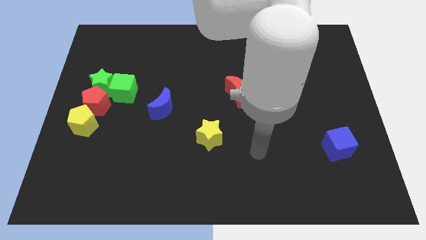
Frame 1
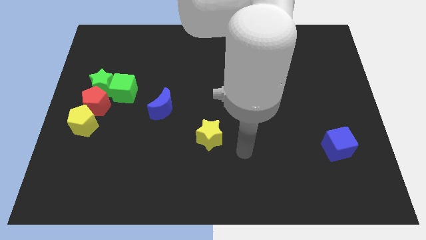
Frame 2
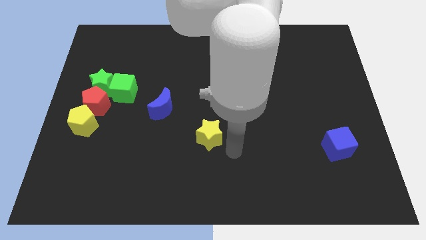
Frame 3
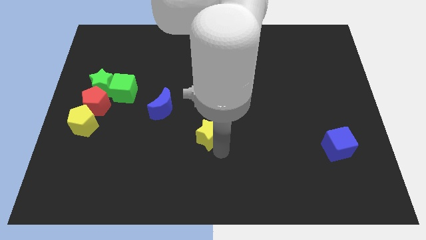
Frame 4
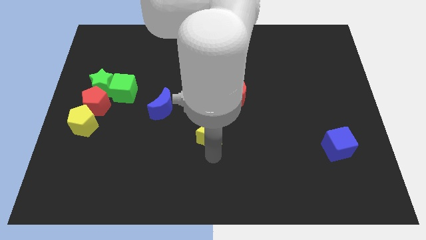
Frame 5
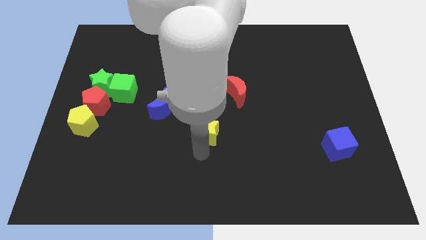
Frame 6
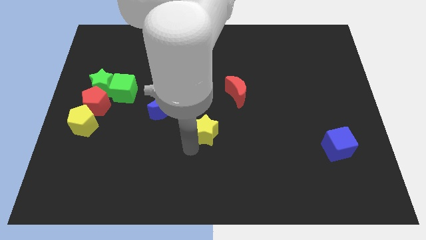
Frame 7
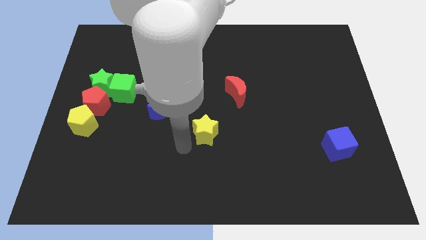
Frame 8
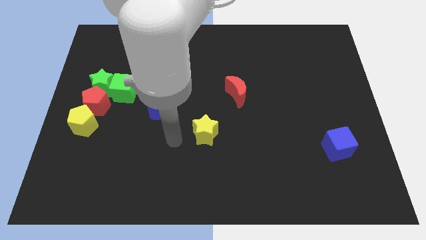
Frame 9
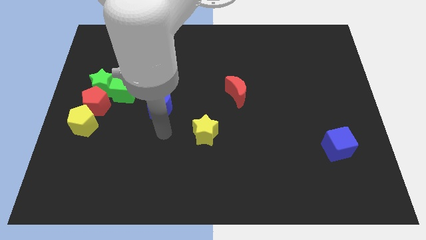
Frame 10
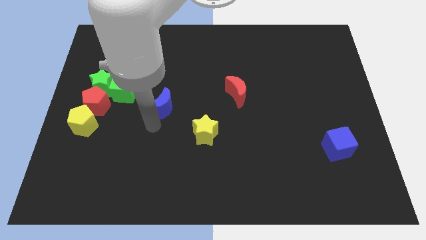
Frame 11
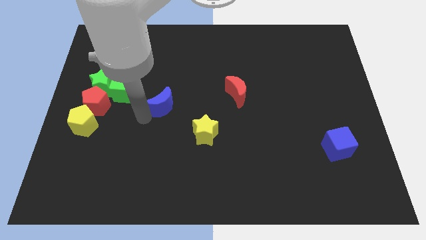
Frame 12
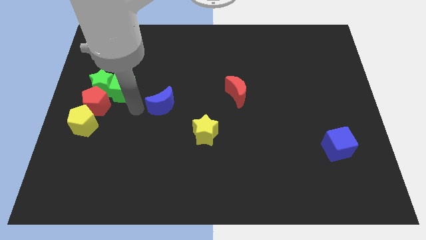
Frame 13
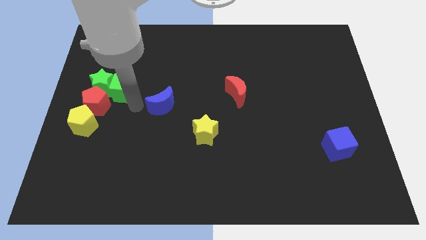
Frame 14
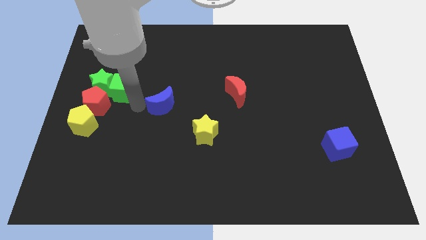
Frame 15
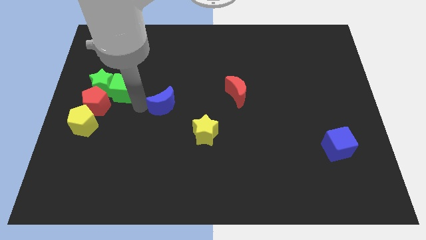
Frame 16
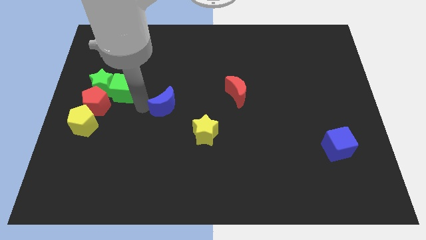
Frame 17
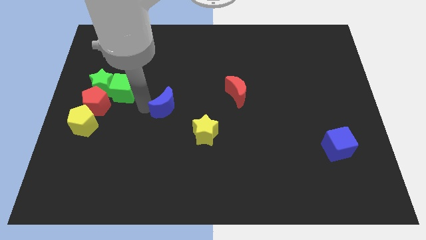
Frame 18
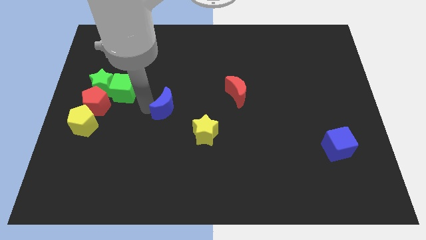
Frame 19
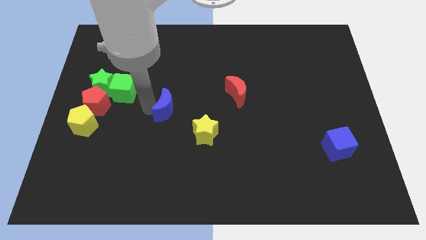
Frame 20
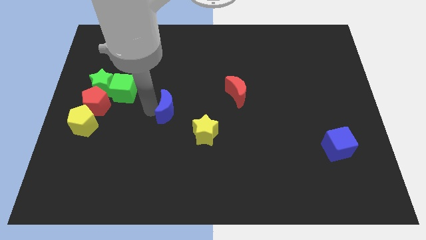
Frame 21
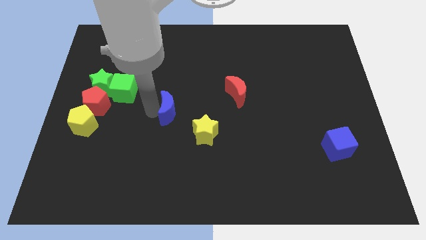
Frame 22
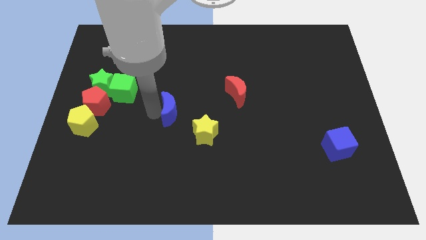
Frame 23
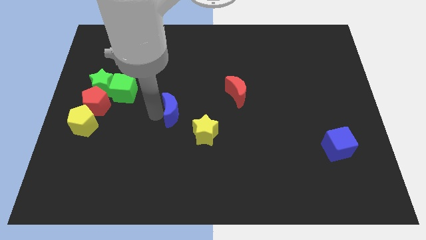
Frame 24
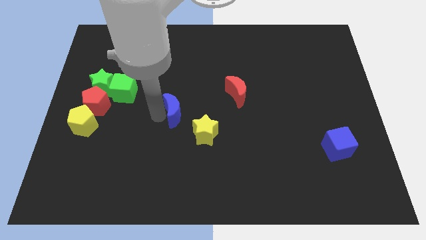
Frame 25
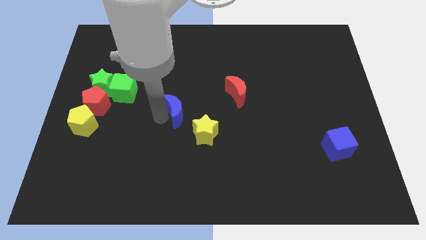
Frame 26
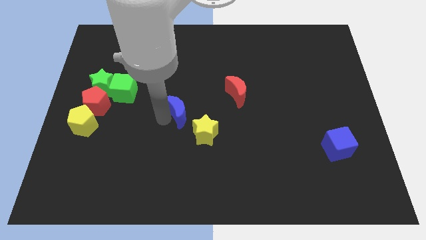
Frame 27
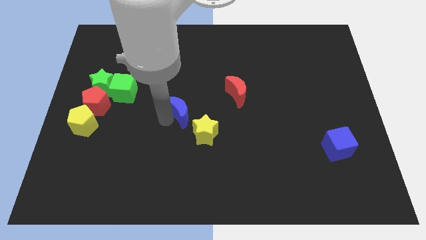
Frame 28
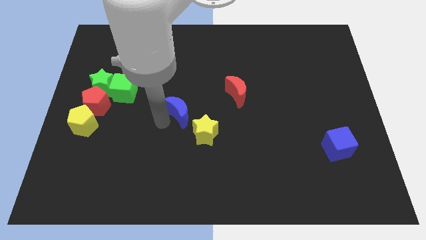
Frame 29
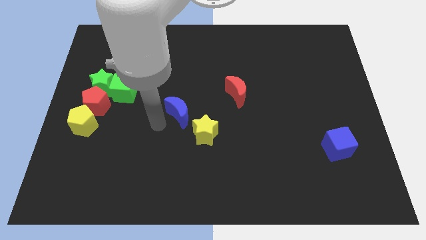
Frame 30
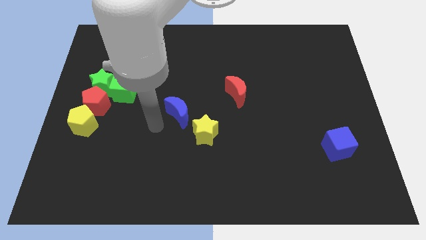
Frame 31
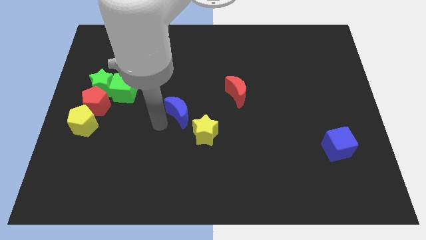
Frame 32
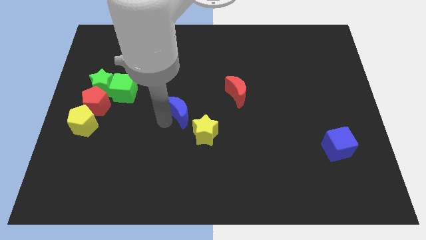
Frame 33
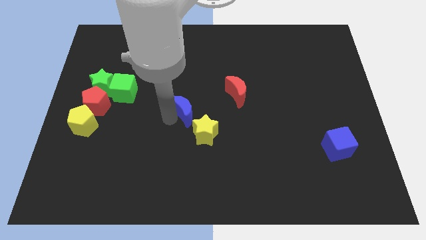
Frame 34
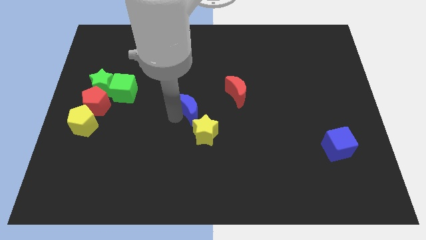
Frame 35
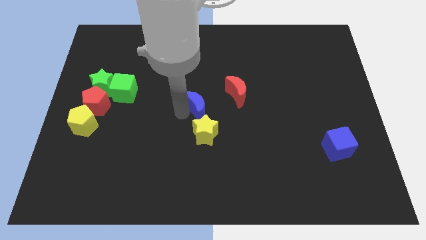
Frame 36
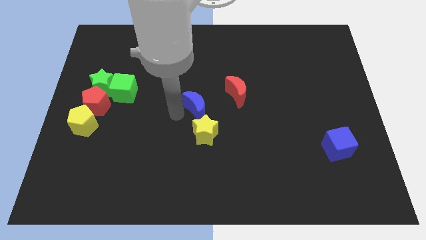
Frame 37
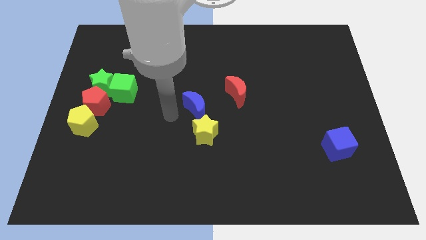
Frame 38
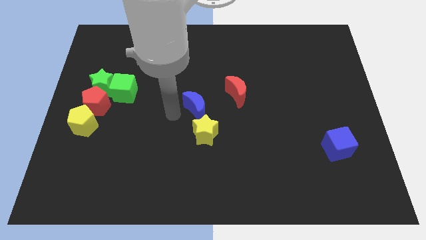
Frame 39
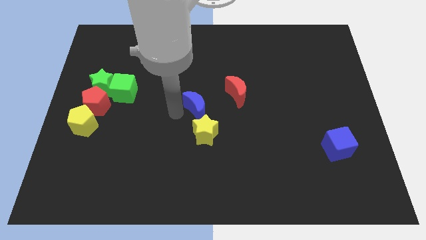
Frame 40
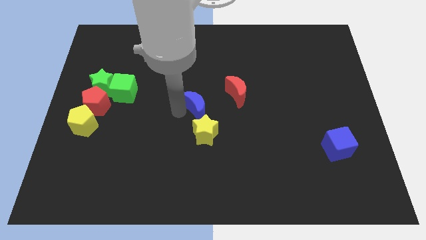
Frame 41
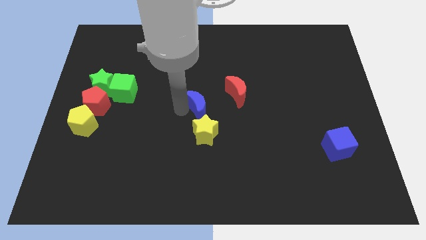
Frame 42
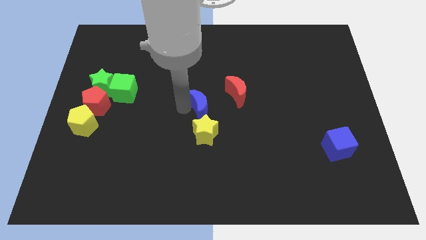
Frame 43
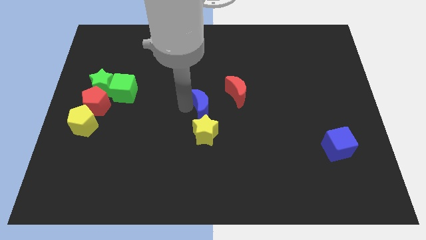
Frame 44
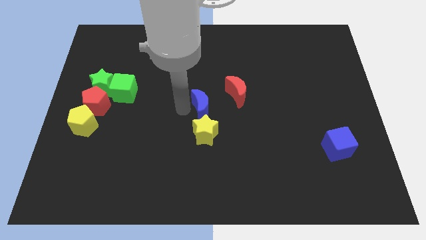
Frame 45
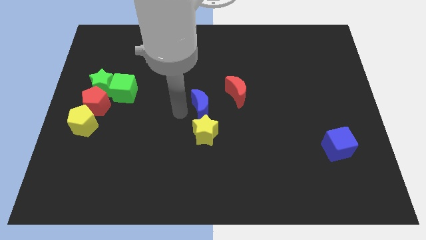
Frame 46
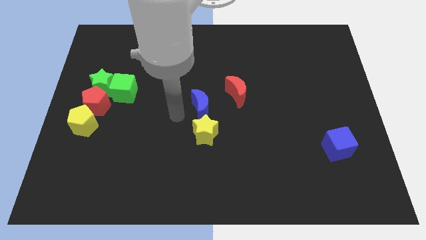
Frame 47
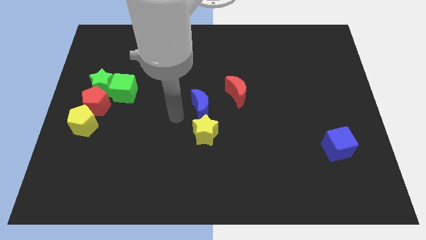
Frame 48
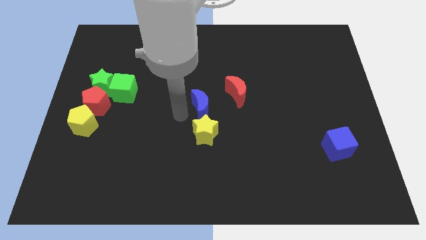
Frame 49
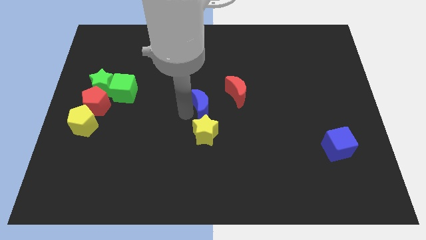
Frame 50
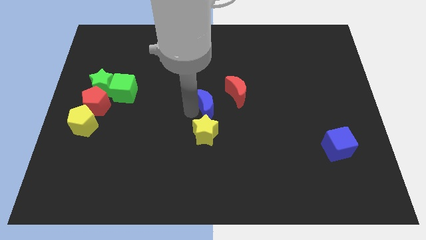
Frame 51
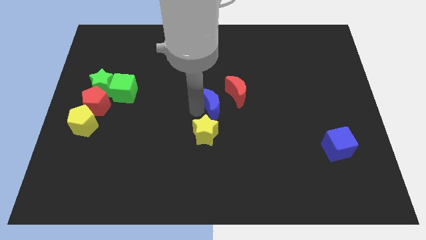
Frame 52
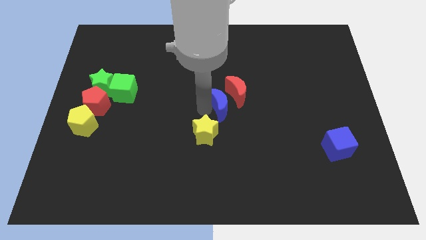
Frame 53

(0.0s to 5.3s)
slide the blue moon towards the red moon

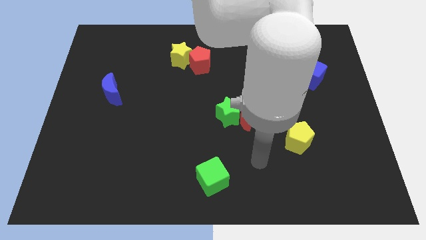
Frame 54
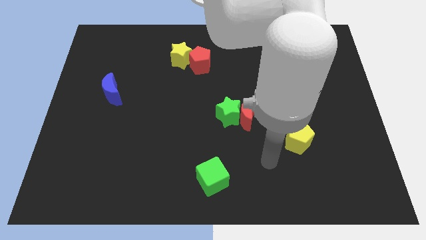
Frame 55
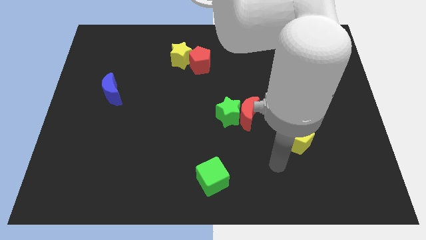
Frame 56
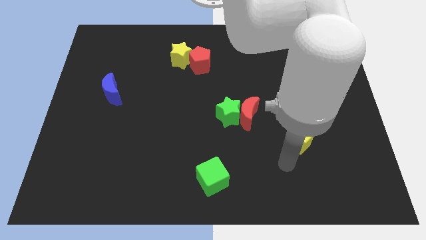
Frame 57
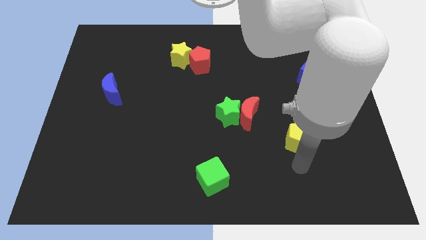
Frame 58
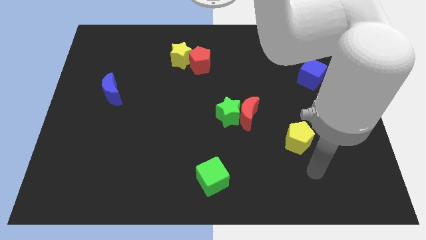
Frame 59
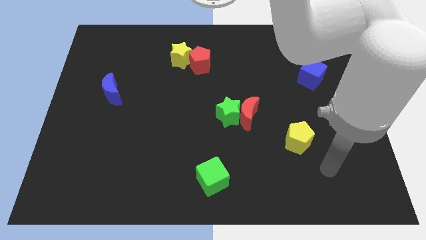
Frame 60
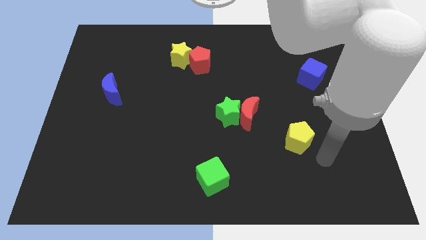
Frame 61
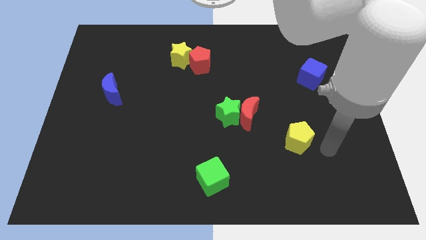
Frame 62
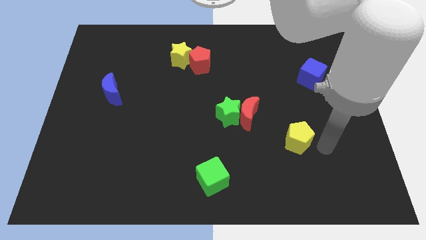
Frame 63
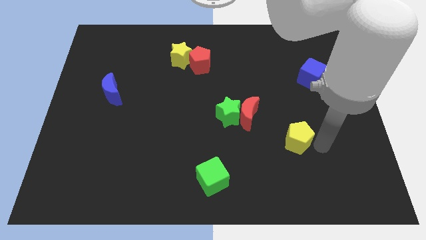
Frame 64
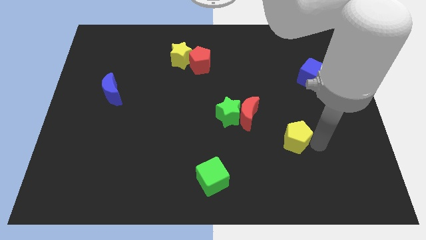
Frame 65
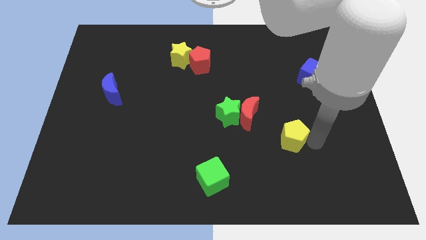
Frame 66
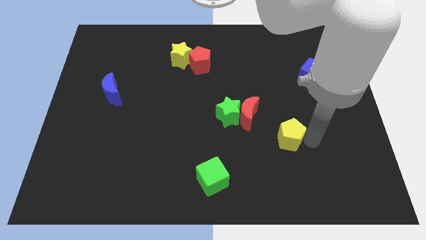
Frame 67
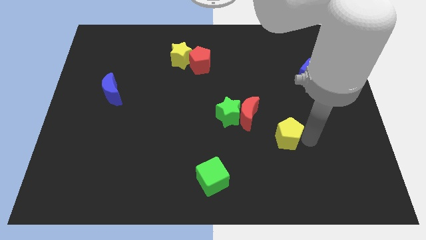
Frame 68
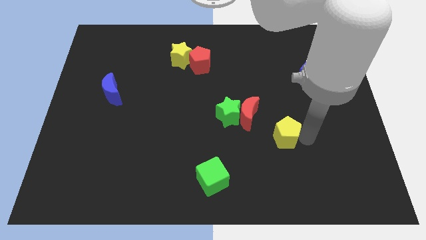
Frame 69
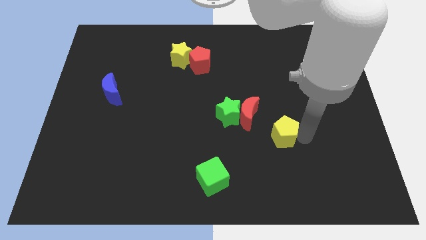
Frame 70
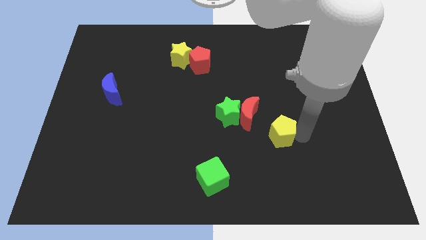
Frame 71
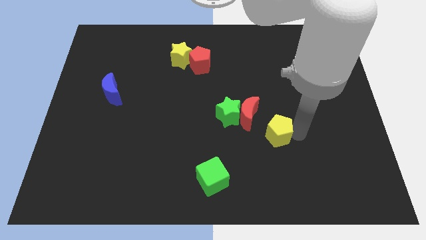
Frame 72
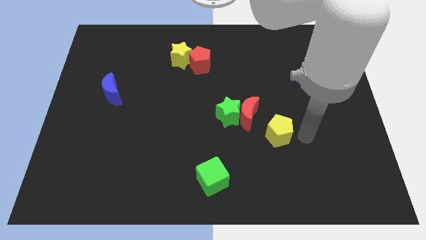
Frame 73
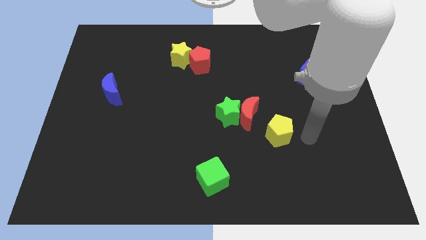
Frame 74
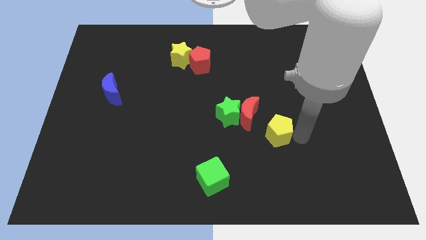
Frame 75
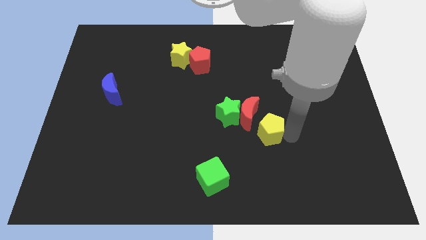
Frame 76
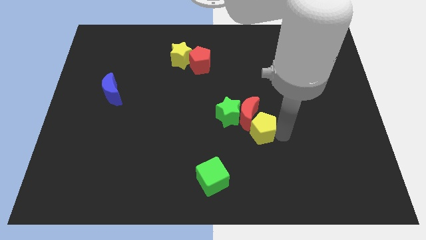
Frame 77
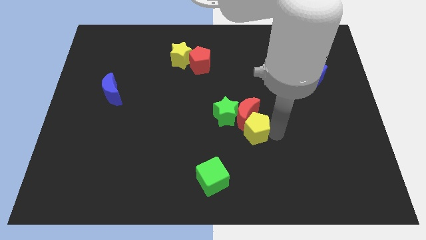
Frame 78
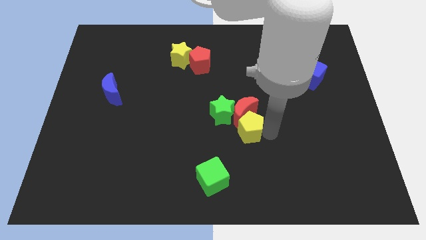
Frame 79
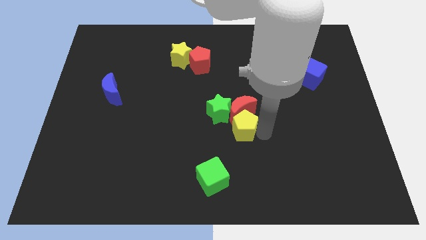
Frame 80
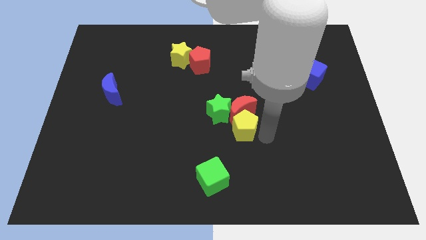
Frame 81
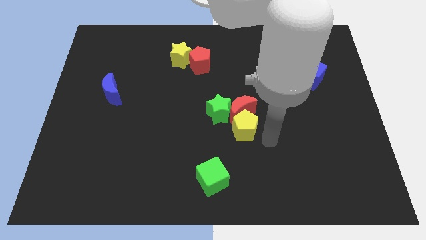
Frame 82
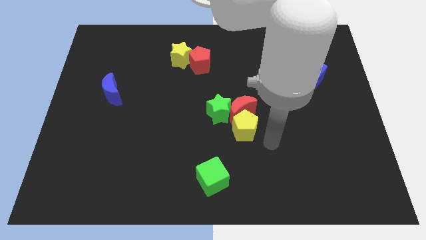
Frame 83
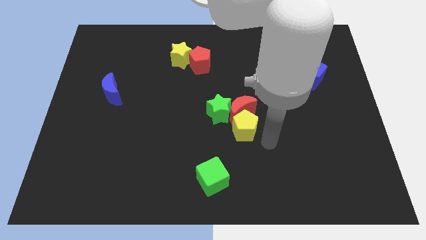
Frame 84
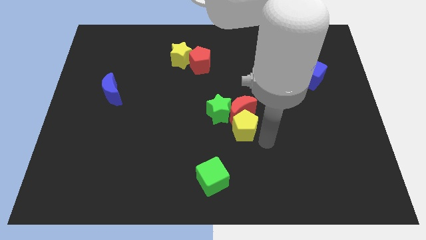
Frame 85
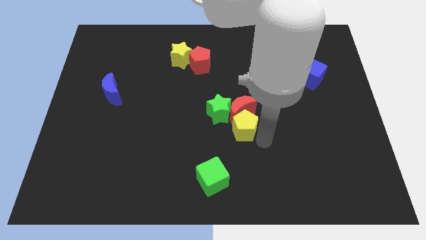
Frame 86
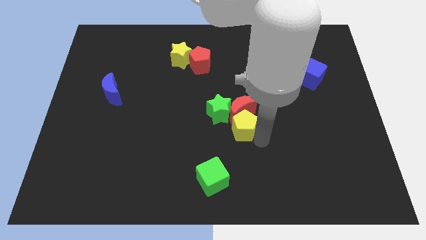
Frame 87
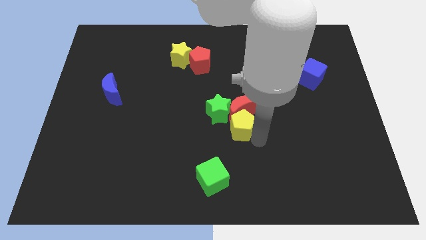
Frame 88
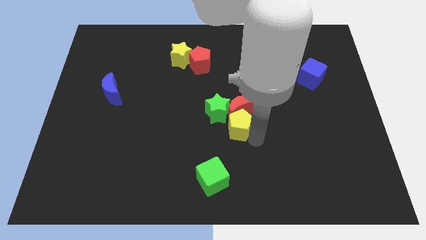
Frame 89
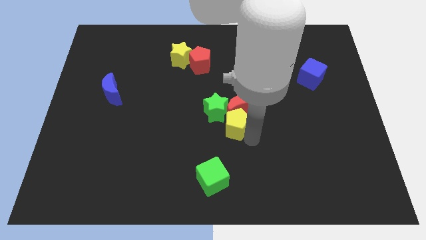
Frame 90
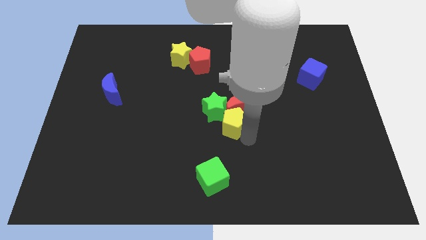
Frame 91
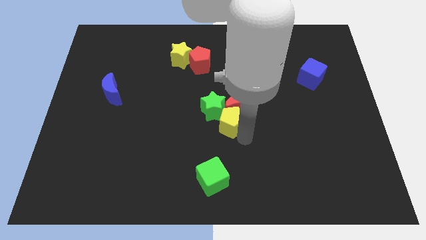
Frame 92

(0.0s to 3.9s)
slide the yellow pentagon towards the green star
